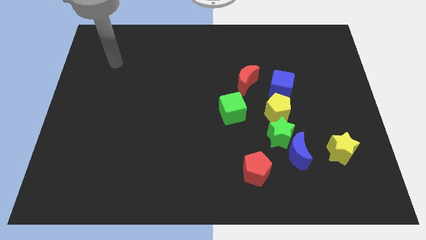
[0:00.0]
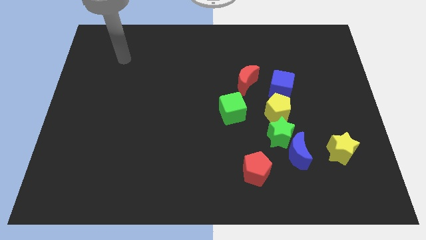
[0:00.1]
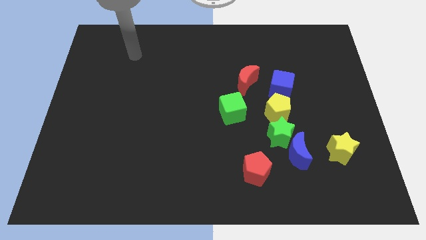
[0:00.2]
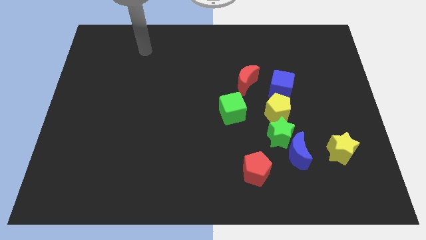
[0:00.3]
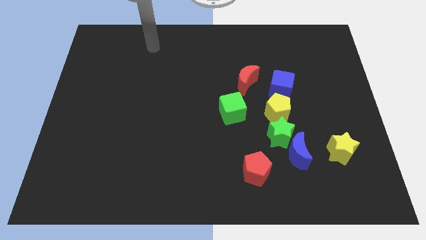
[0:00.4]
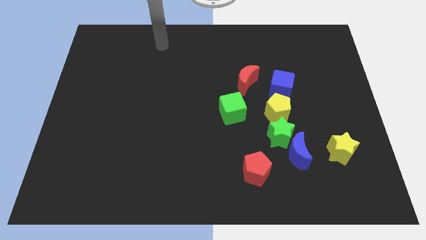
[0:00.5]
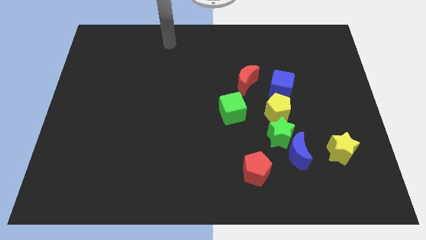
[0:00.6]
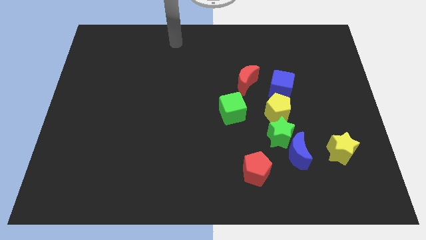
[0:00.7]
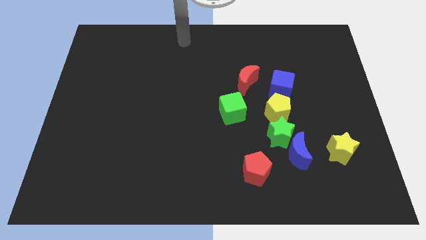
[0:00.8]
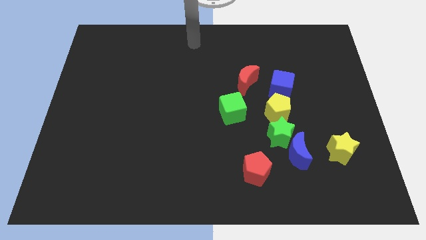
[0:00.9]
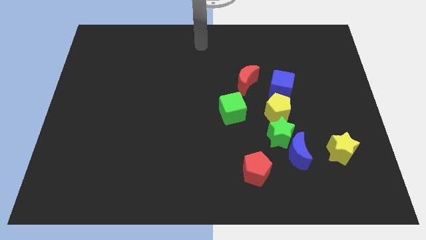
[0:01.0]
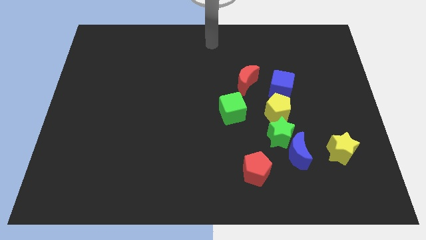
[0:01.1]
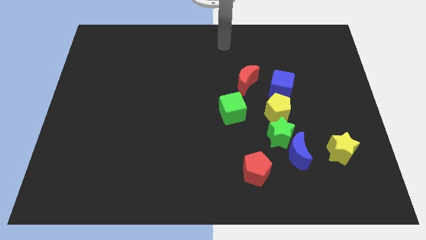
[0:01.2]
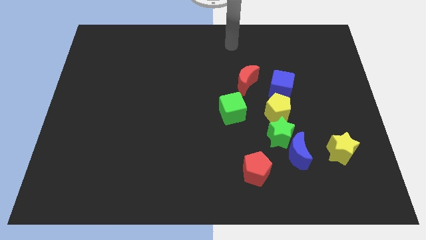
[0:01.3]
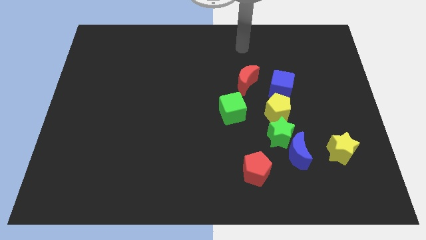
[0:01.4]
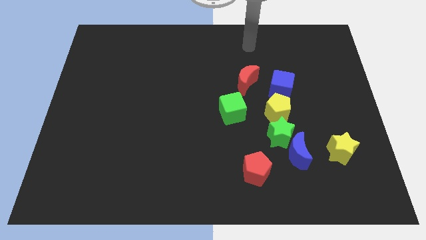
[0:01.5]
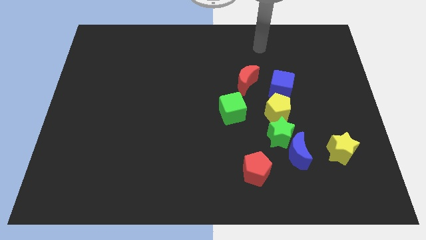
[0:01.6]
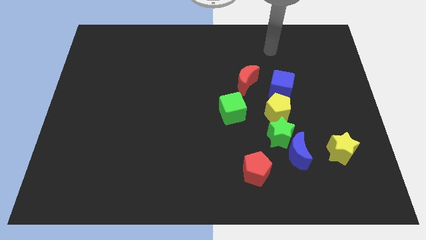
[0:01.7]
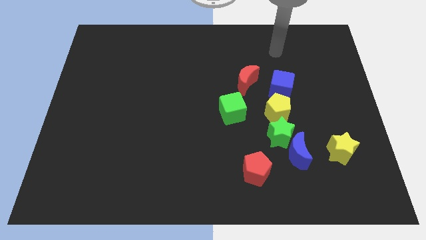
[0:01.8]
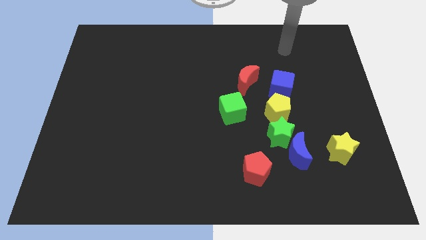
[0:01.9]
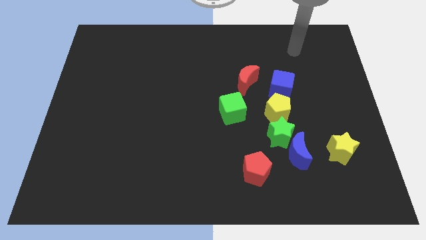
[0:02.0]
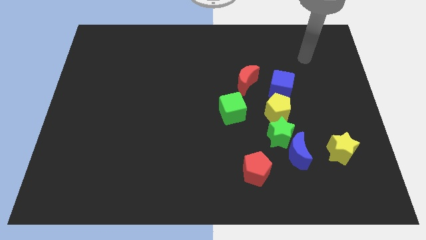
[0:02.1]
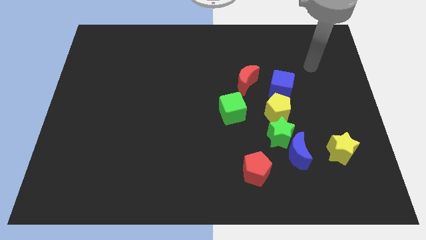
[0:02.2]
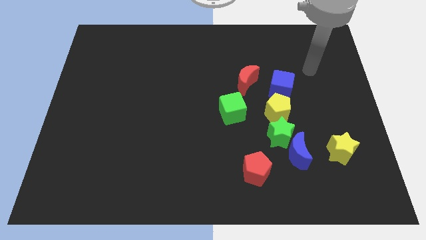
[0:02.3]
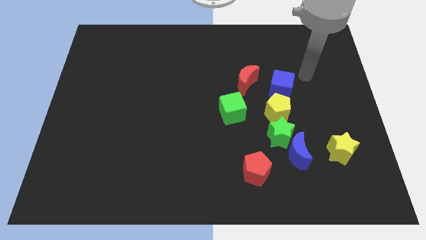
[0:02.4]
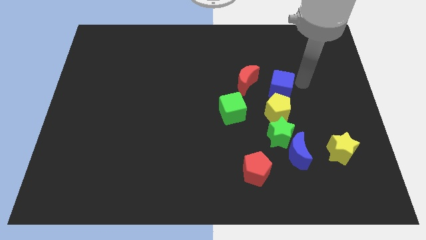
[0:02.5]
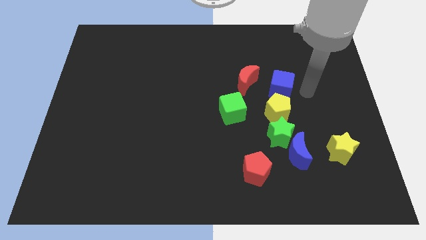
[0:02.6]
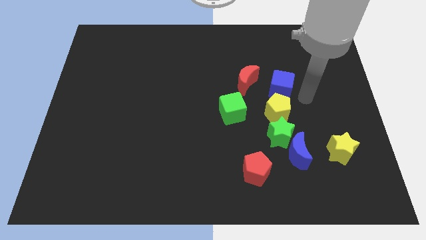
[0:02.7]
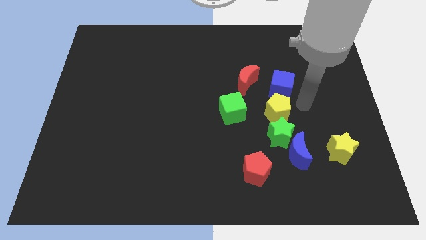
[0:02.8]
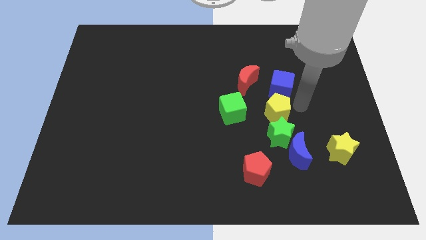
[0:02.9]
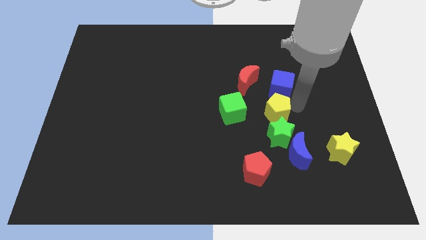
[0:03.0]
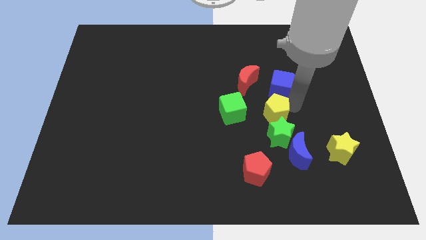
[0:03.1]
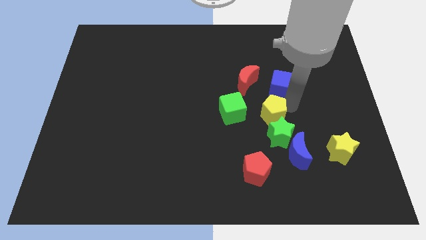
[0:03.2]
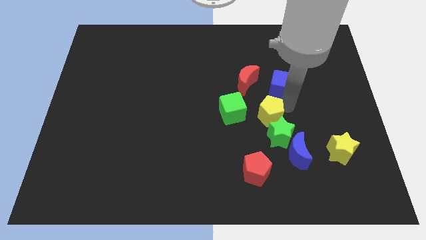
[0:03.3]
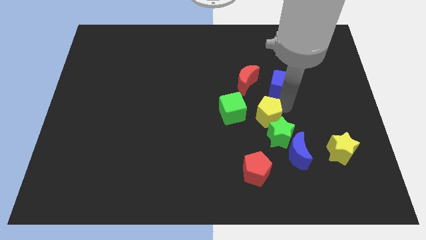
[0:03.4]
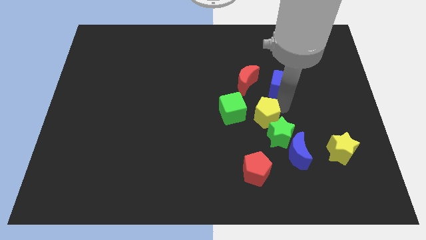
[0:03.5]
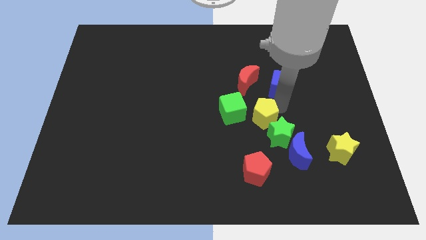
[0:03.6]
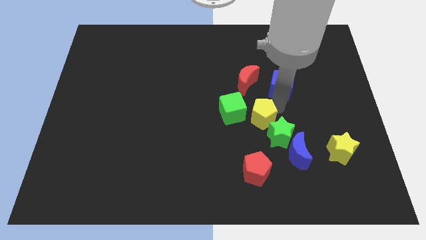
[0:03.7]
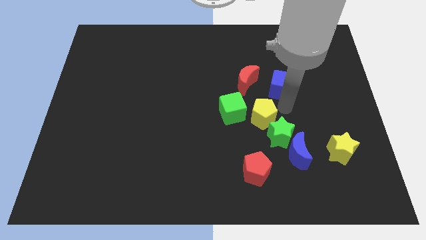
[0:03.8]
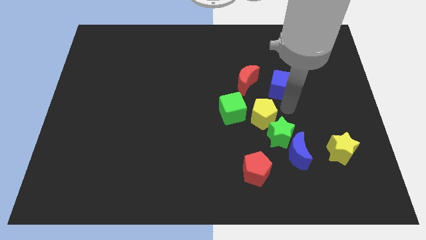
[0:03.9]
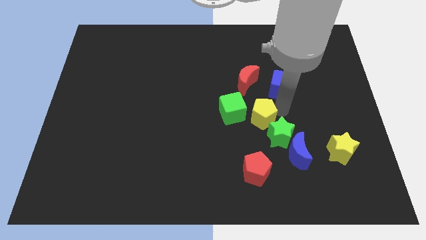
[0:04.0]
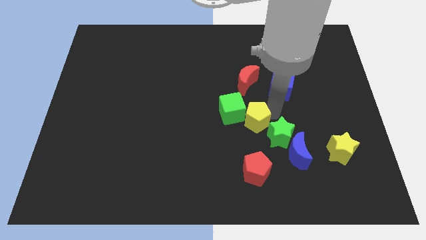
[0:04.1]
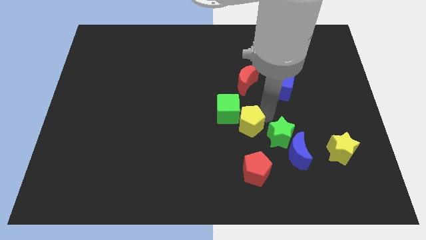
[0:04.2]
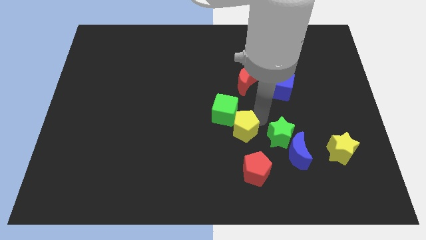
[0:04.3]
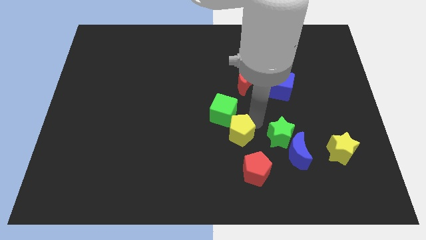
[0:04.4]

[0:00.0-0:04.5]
move the yellow pentagon away from the green star and blue cube

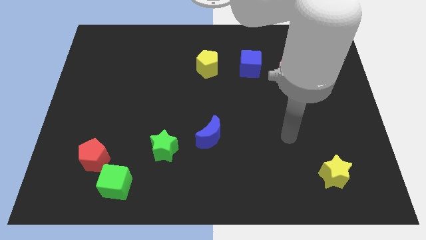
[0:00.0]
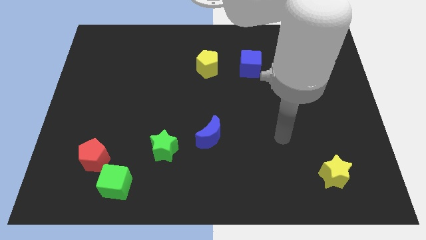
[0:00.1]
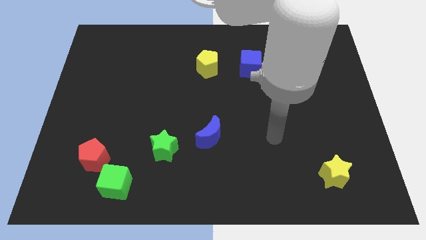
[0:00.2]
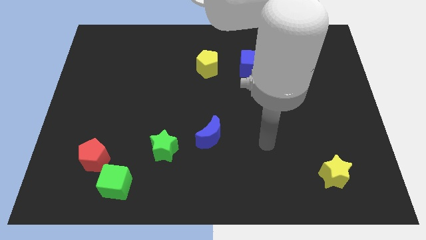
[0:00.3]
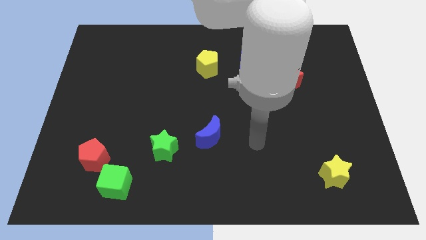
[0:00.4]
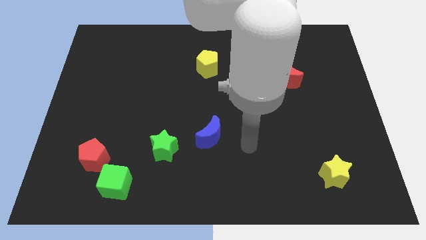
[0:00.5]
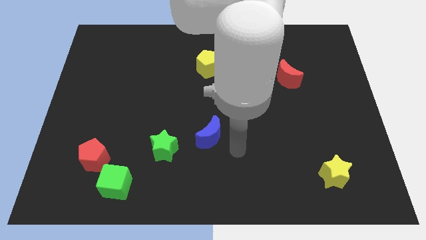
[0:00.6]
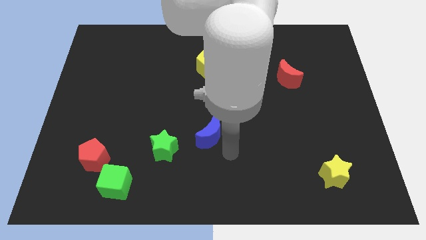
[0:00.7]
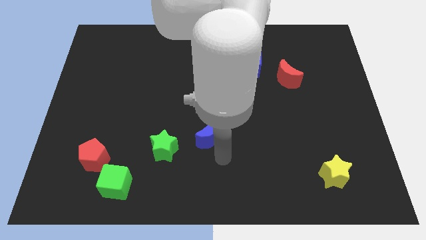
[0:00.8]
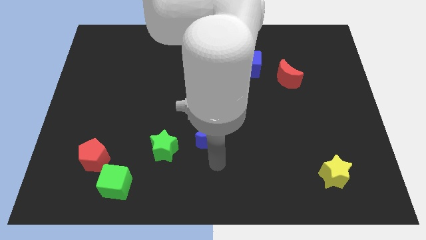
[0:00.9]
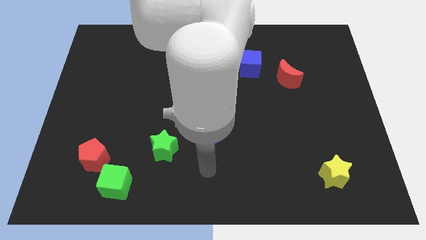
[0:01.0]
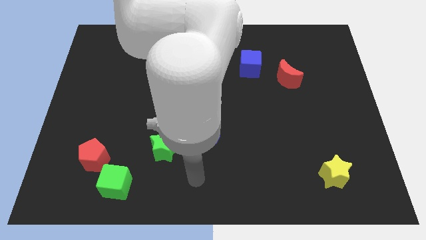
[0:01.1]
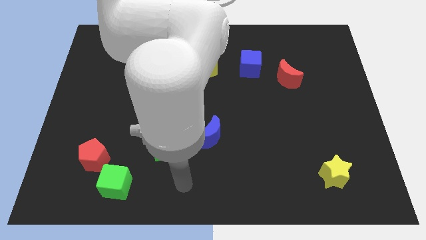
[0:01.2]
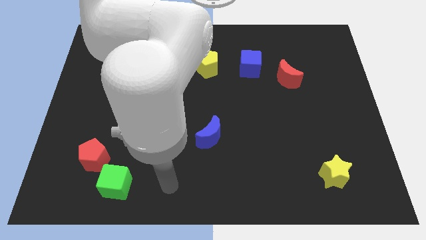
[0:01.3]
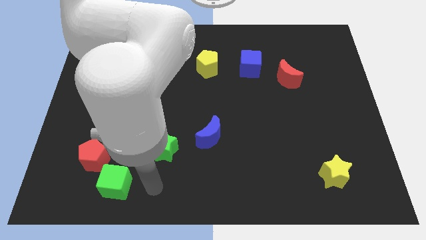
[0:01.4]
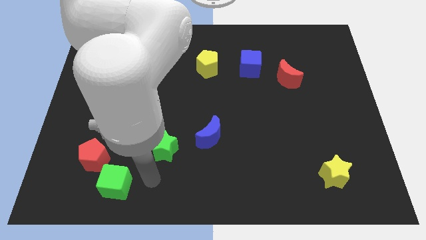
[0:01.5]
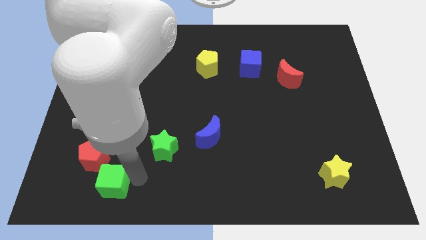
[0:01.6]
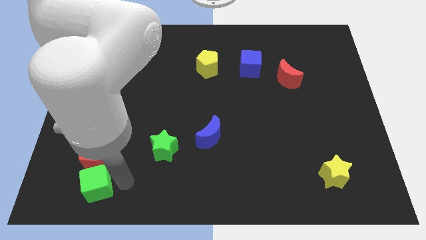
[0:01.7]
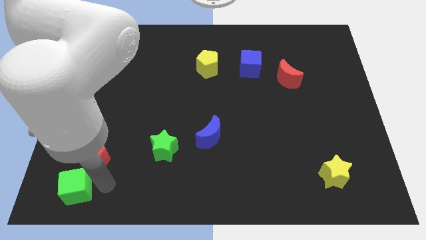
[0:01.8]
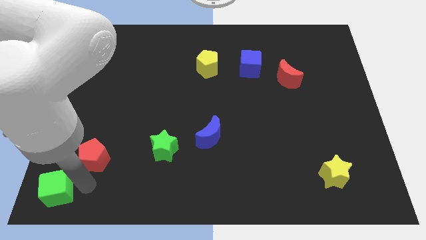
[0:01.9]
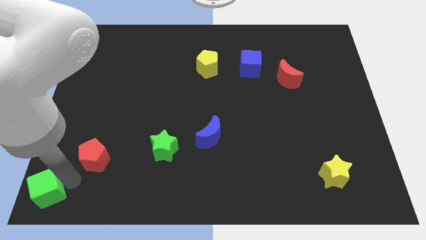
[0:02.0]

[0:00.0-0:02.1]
separate the red pentagon from the green cube

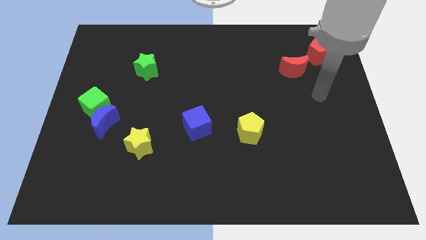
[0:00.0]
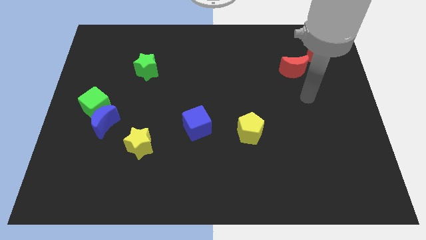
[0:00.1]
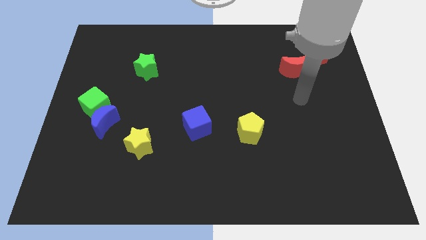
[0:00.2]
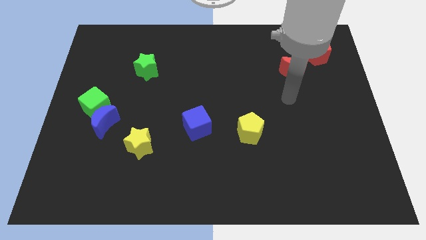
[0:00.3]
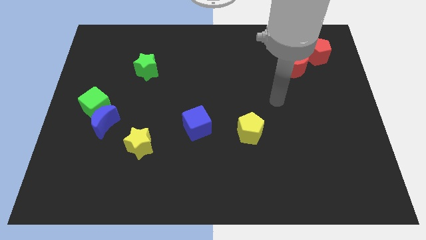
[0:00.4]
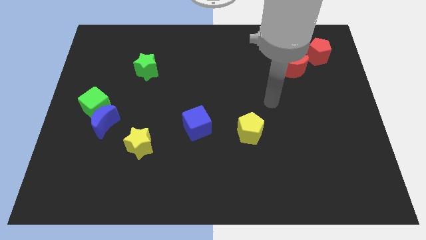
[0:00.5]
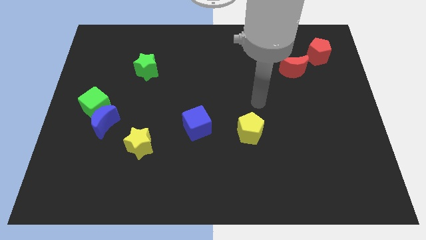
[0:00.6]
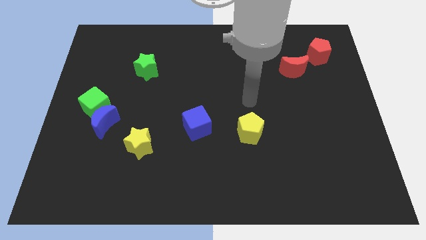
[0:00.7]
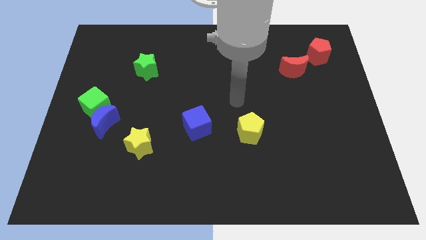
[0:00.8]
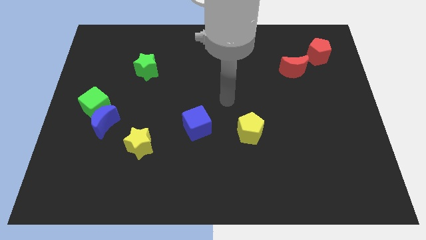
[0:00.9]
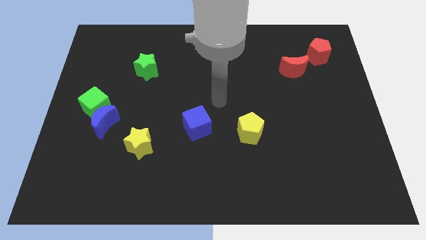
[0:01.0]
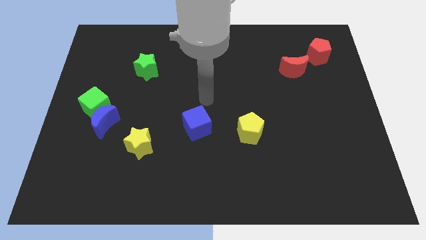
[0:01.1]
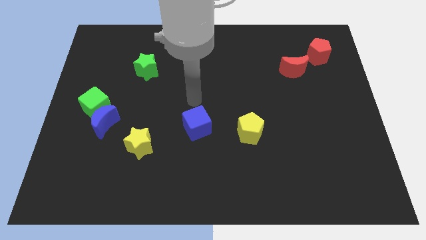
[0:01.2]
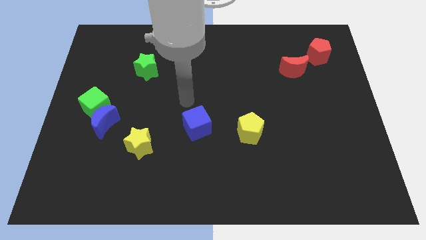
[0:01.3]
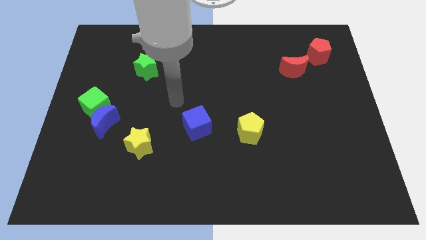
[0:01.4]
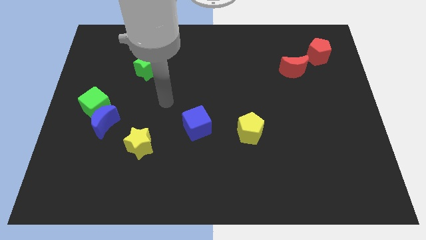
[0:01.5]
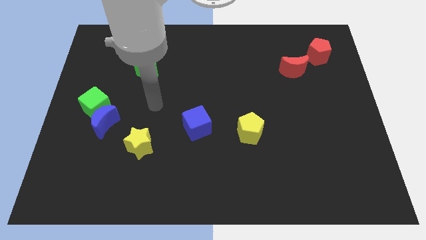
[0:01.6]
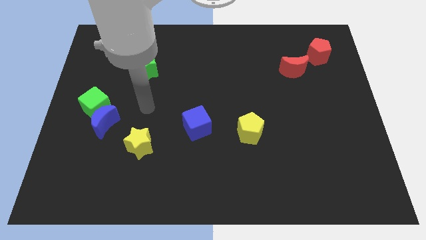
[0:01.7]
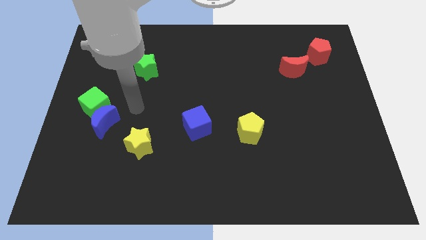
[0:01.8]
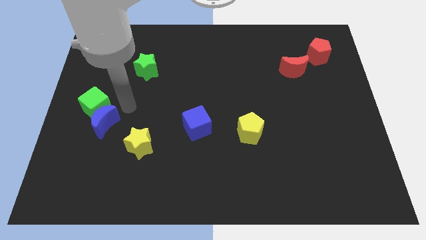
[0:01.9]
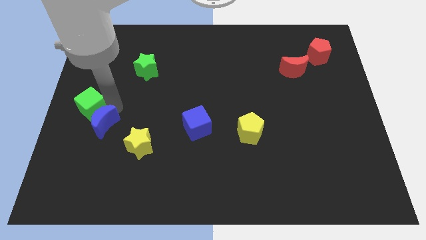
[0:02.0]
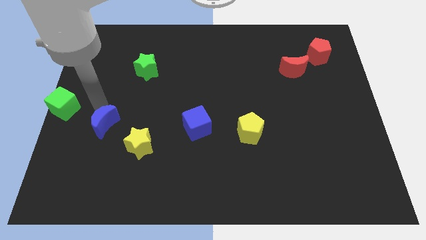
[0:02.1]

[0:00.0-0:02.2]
separate the blue moon from the green cube

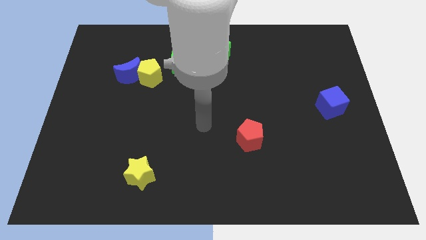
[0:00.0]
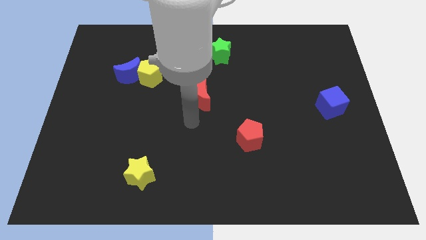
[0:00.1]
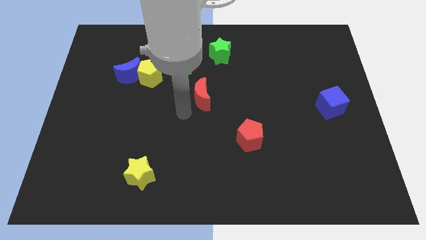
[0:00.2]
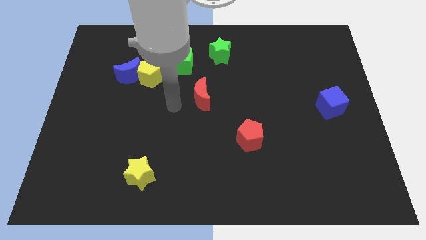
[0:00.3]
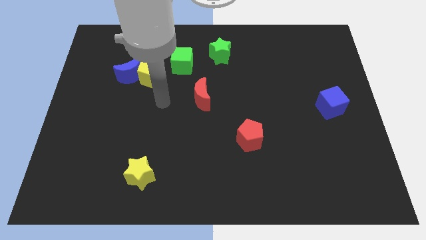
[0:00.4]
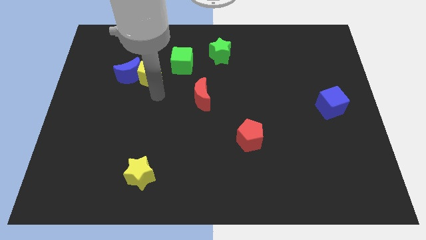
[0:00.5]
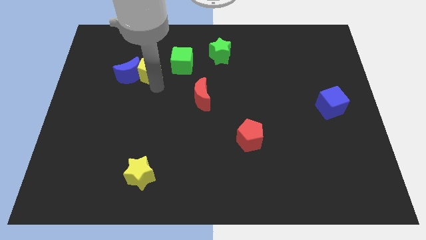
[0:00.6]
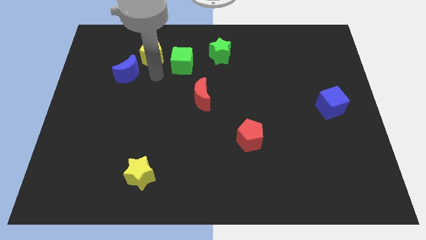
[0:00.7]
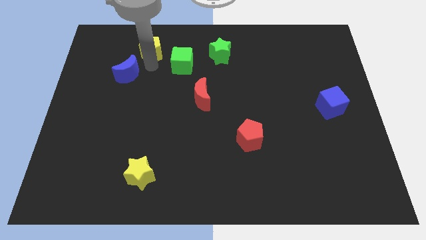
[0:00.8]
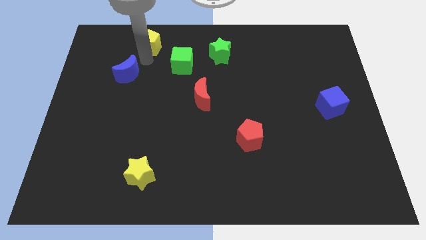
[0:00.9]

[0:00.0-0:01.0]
move the blue moon away from the yellow pentagon
